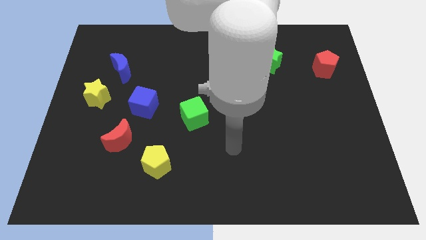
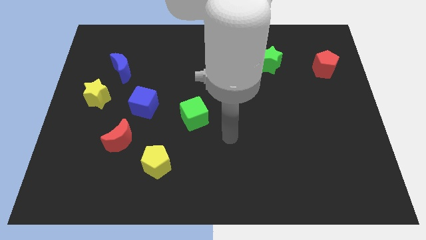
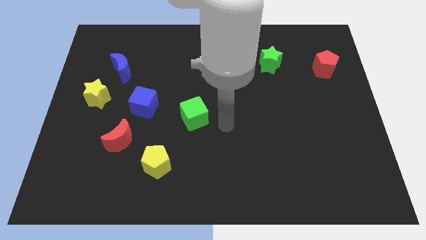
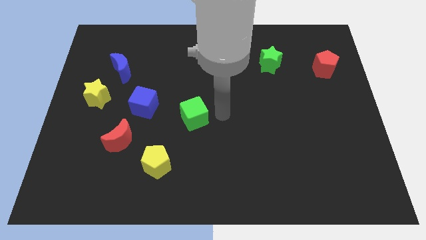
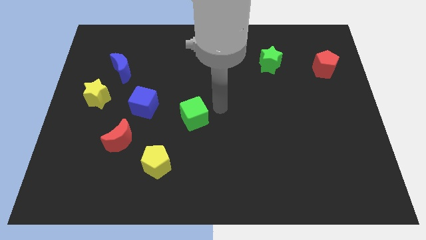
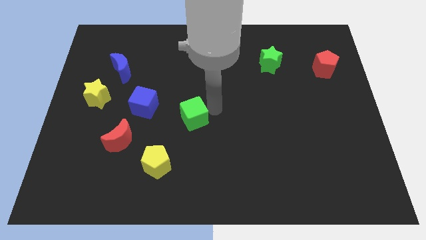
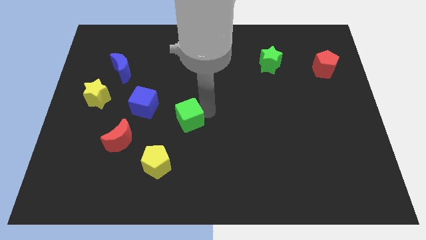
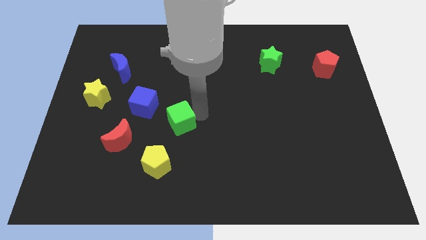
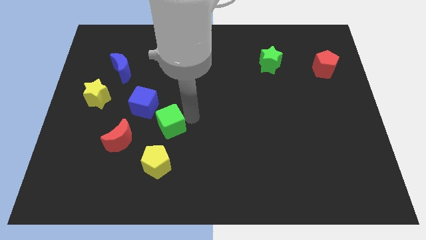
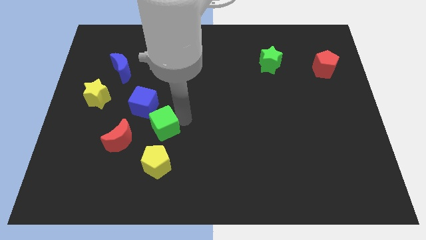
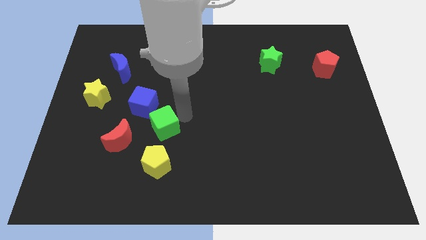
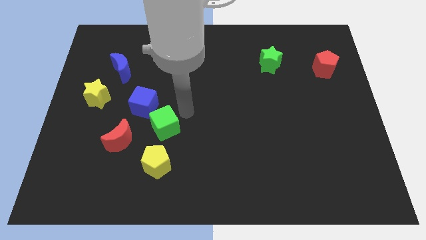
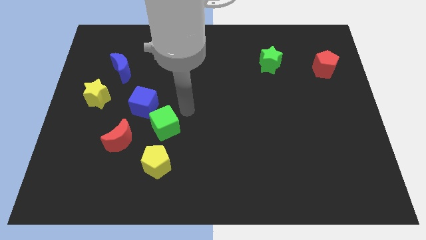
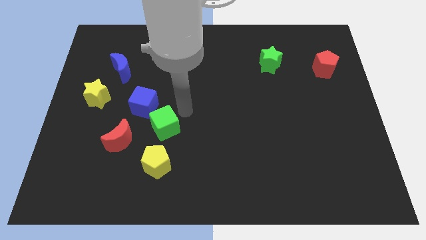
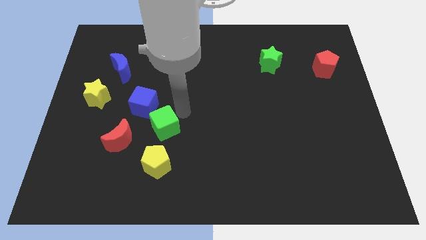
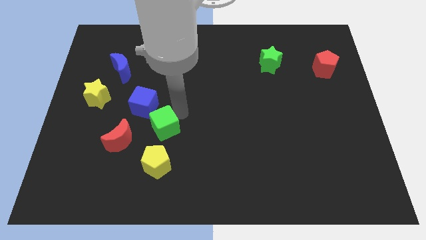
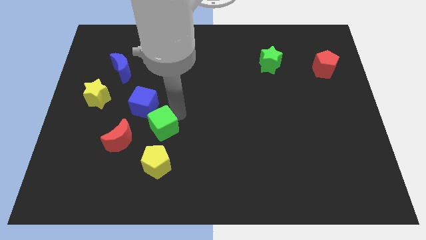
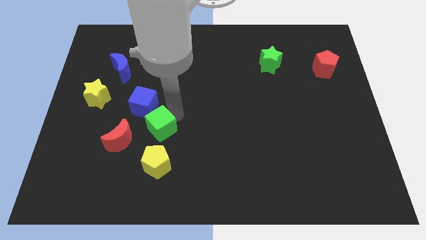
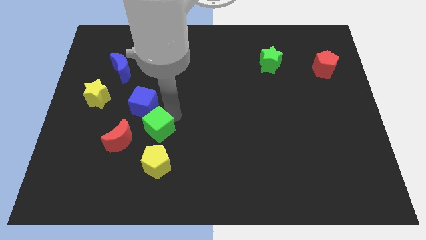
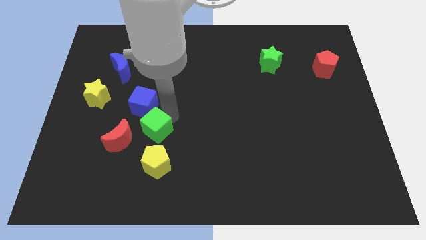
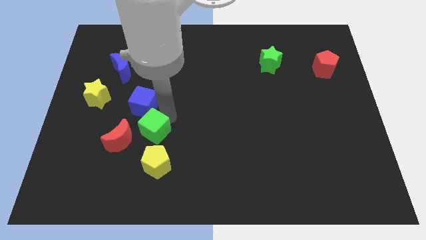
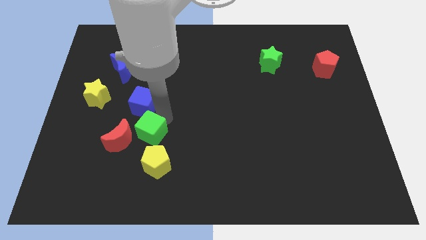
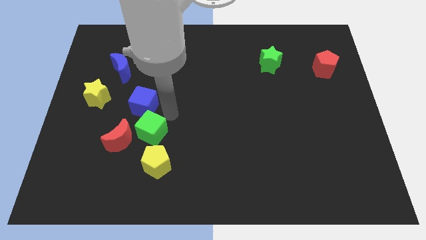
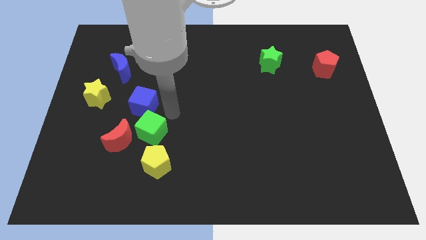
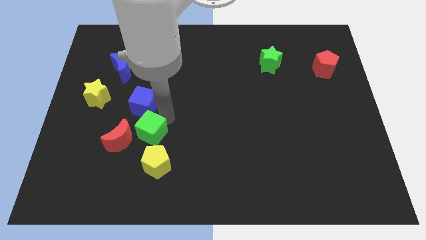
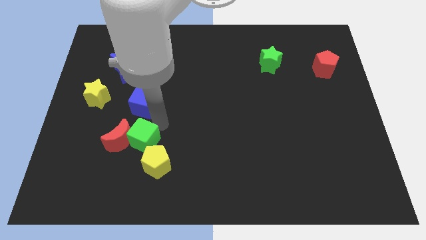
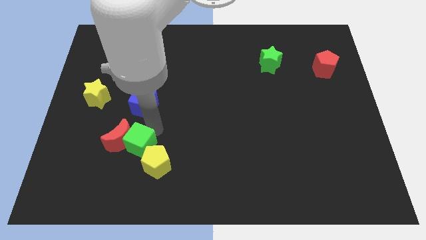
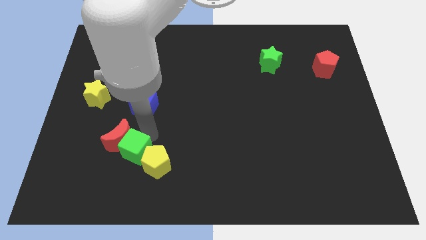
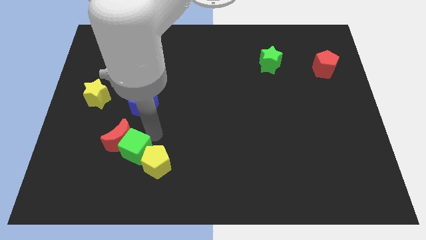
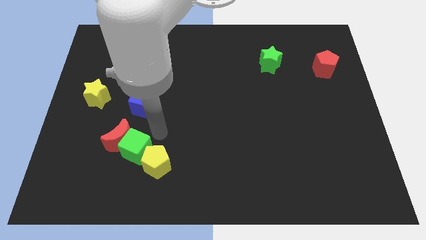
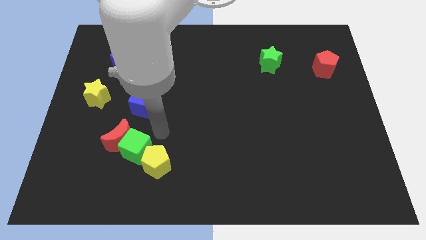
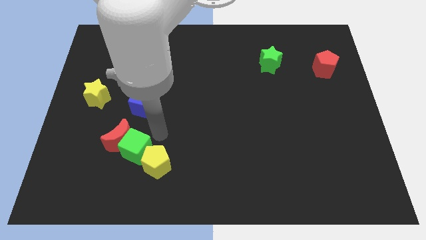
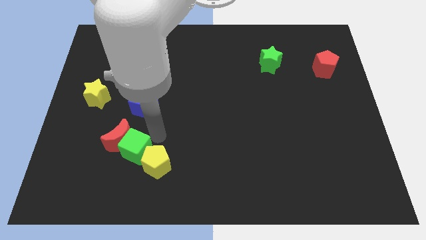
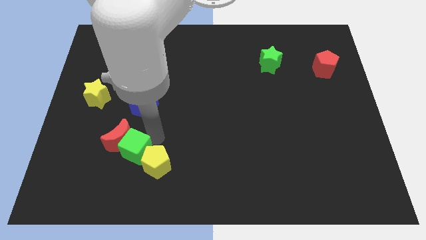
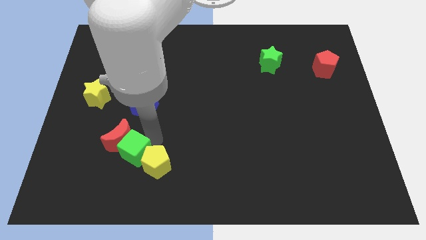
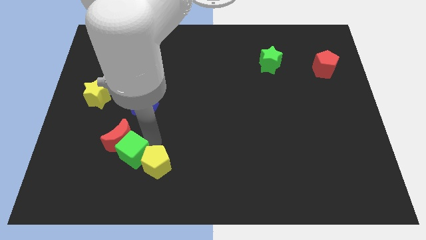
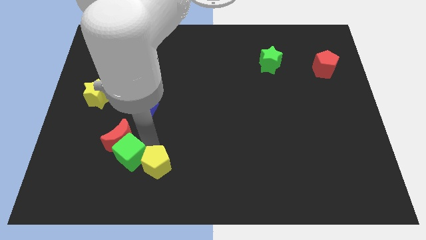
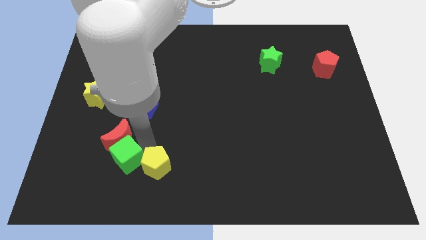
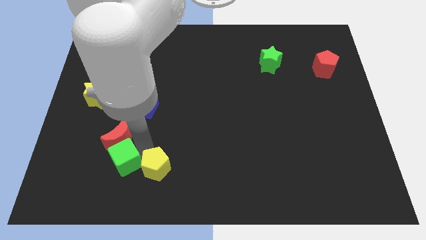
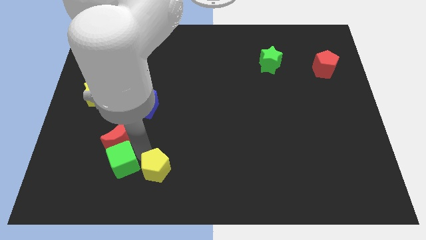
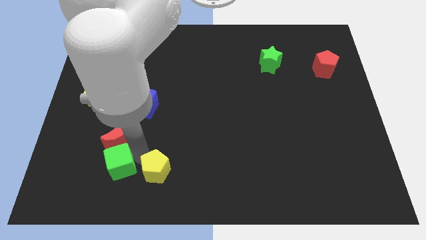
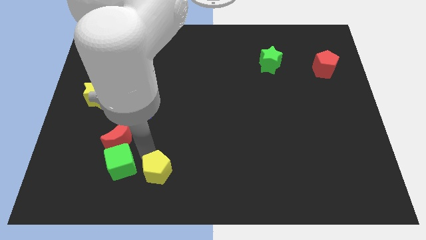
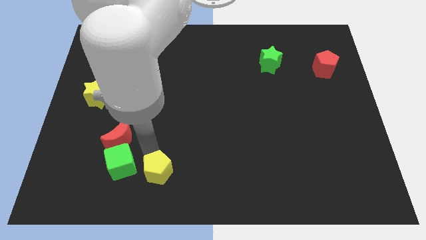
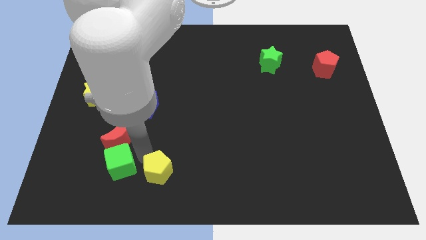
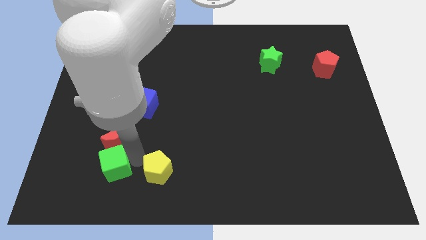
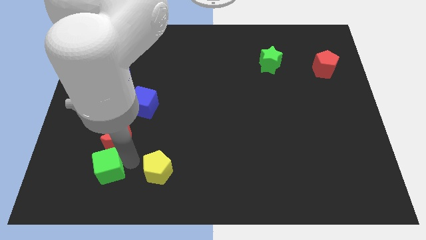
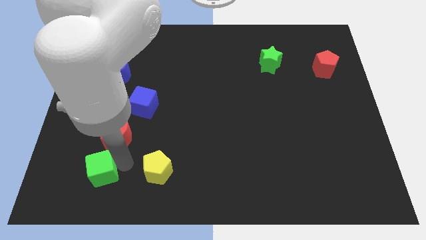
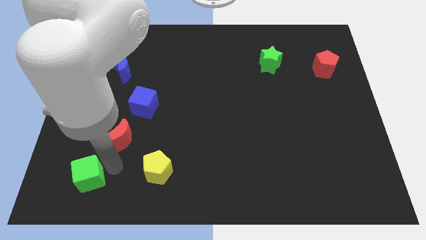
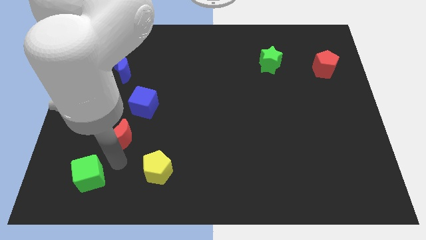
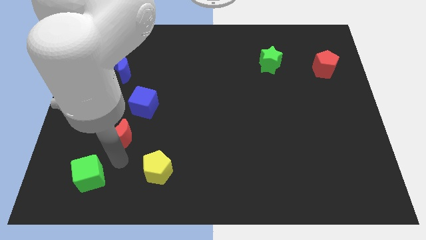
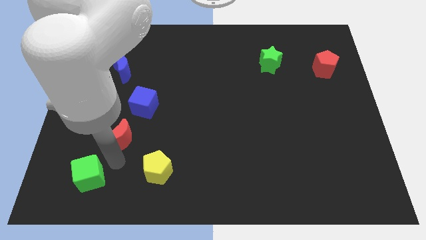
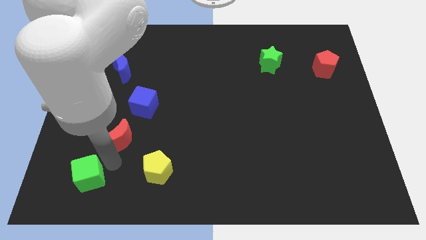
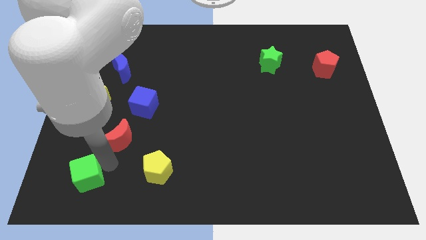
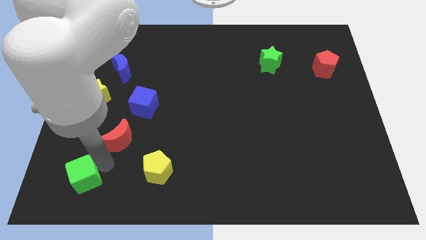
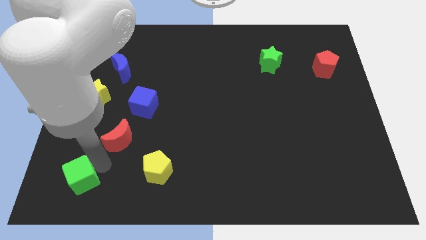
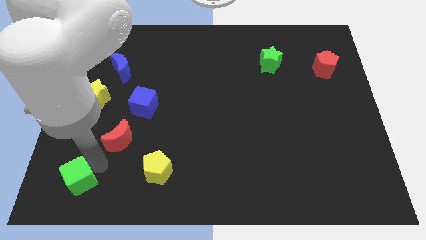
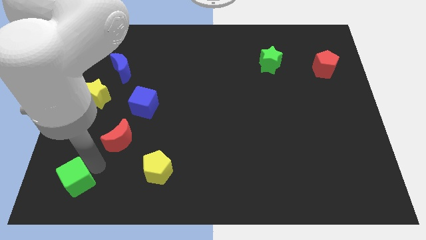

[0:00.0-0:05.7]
put the green cube to the lower left corner
